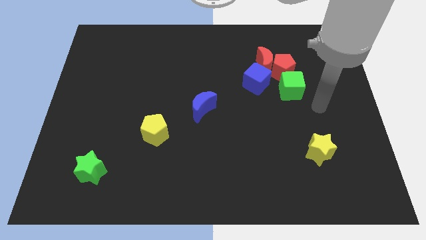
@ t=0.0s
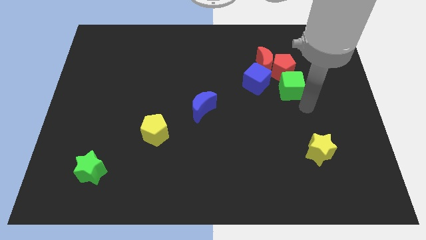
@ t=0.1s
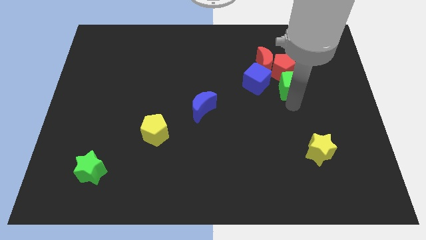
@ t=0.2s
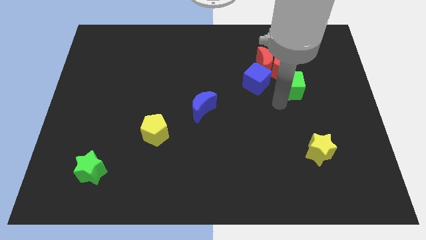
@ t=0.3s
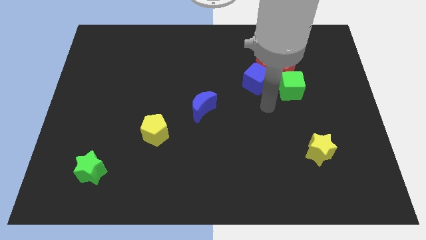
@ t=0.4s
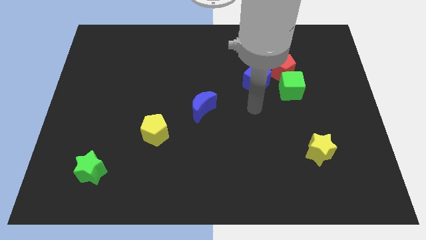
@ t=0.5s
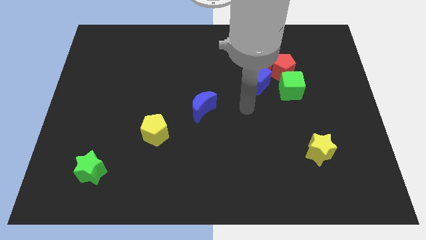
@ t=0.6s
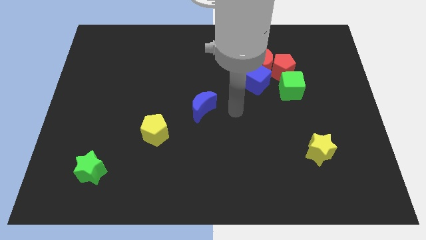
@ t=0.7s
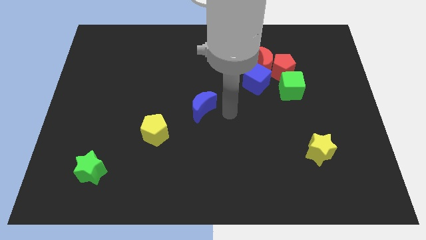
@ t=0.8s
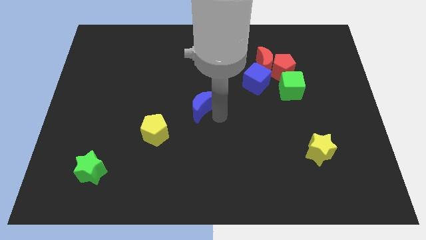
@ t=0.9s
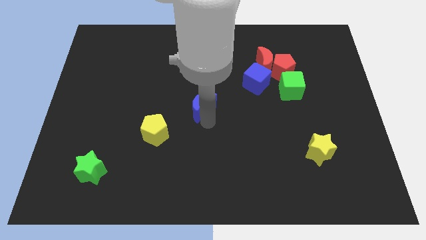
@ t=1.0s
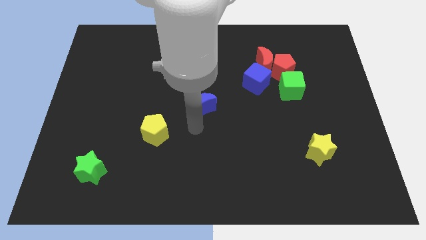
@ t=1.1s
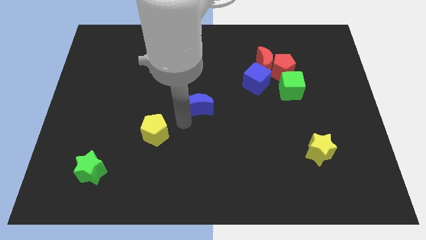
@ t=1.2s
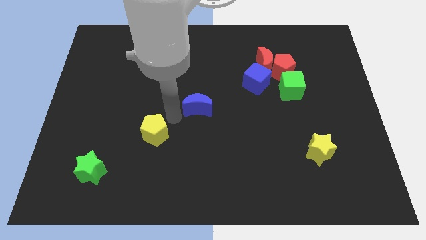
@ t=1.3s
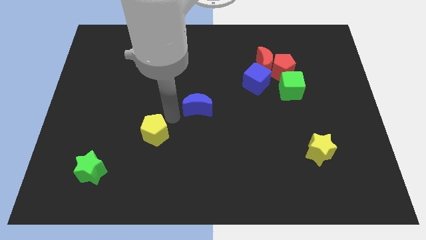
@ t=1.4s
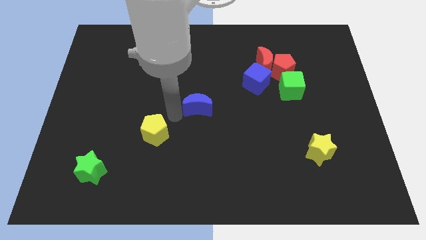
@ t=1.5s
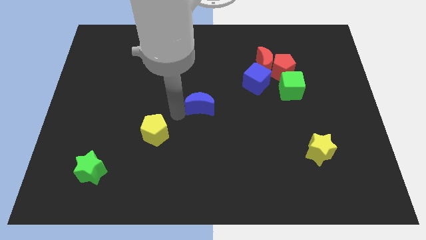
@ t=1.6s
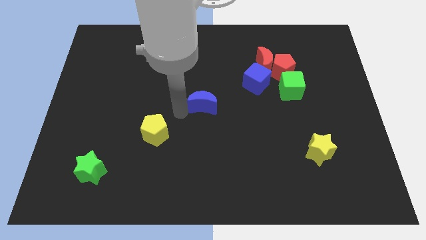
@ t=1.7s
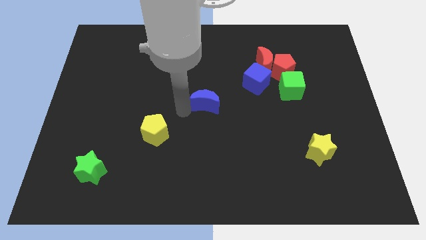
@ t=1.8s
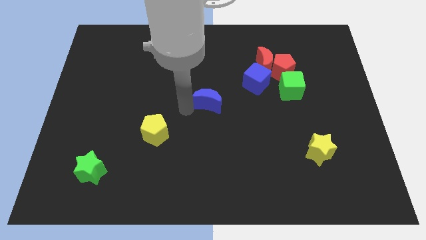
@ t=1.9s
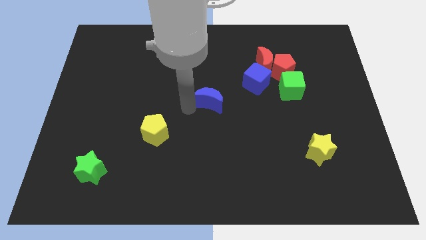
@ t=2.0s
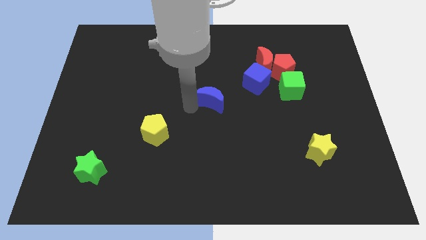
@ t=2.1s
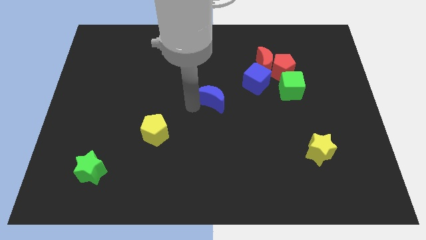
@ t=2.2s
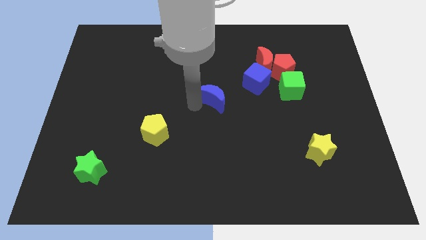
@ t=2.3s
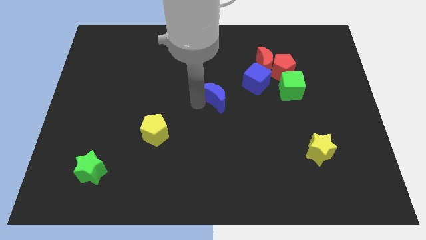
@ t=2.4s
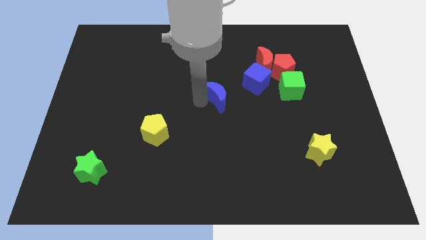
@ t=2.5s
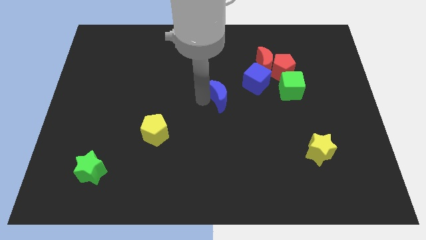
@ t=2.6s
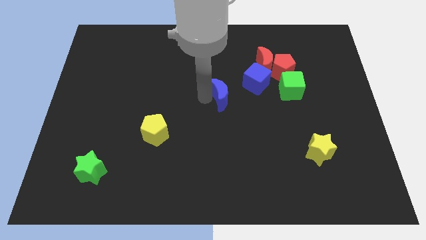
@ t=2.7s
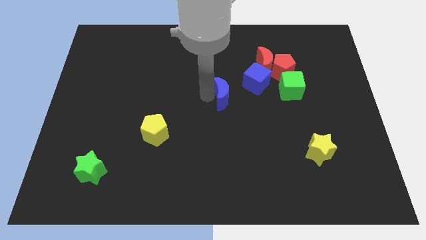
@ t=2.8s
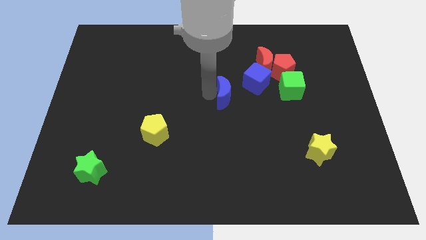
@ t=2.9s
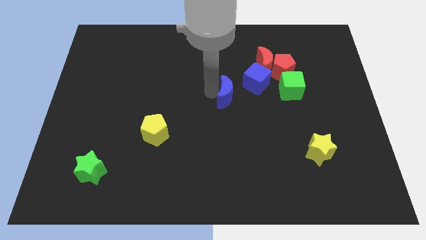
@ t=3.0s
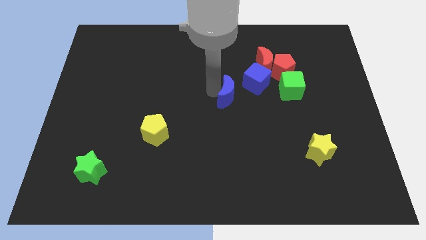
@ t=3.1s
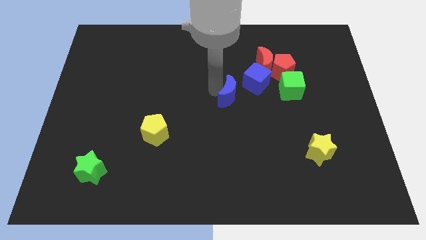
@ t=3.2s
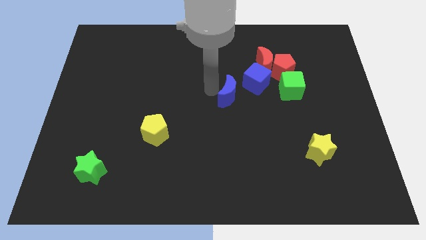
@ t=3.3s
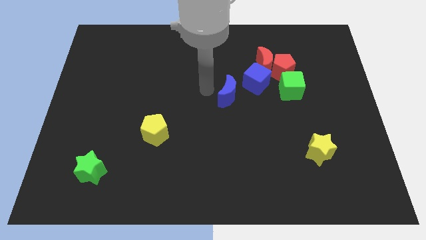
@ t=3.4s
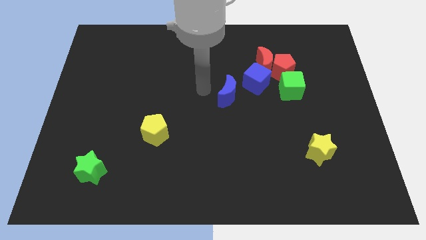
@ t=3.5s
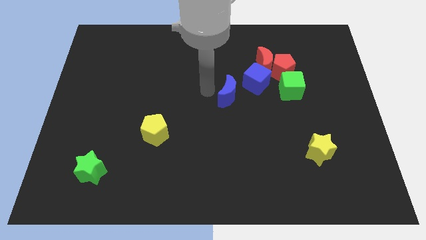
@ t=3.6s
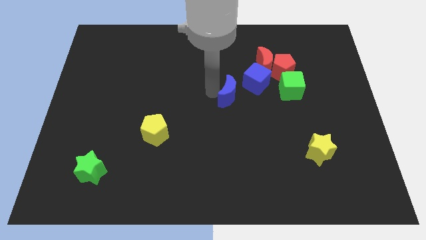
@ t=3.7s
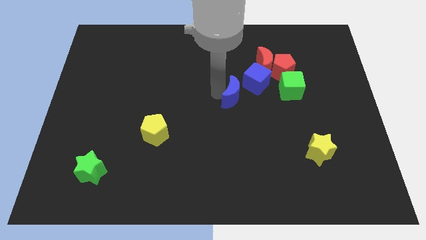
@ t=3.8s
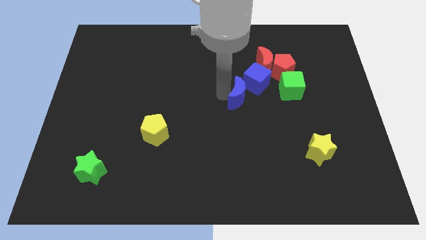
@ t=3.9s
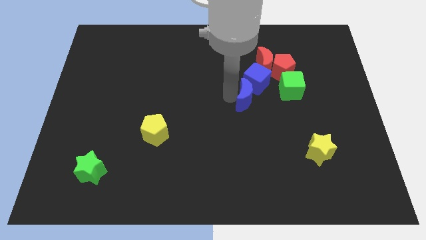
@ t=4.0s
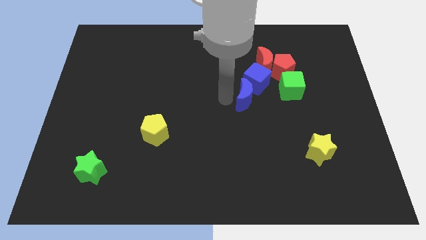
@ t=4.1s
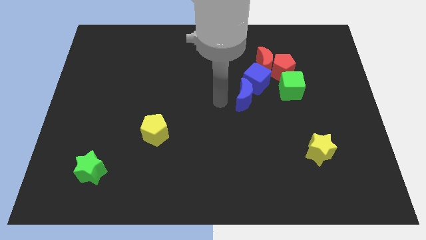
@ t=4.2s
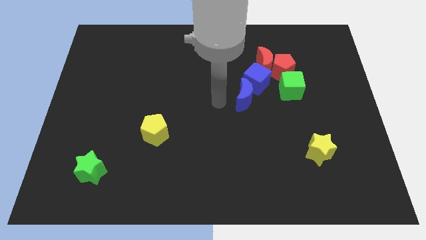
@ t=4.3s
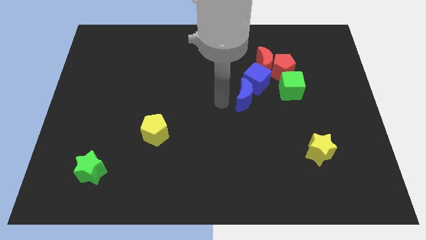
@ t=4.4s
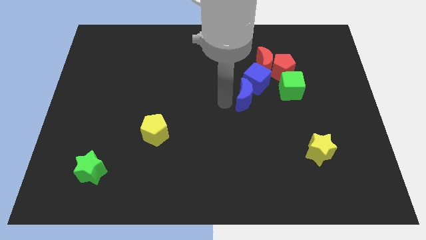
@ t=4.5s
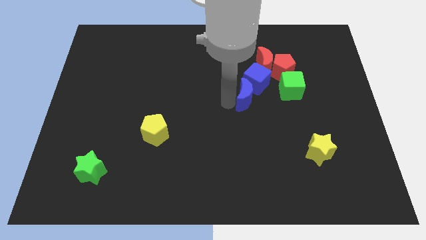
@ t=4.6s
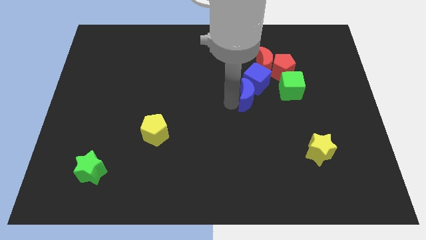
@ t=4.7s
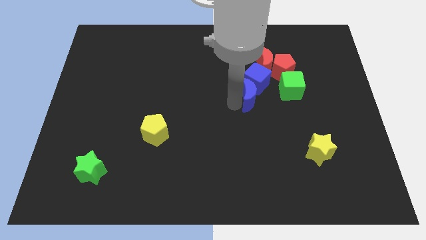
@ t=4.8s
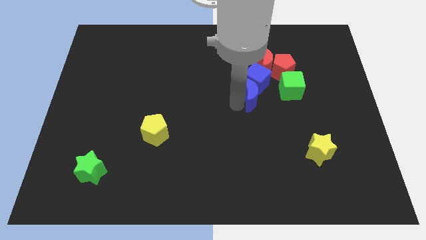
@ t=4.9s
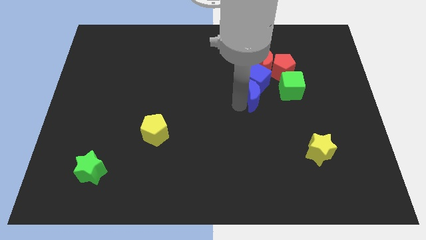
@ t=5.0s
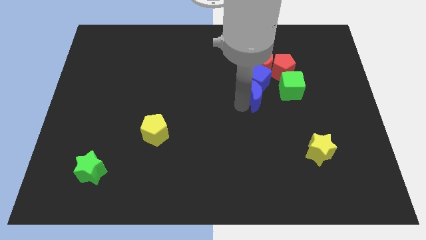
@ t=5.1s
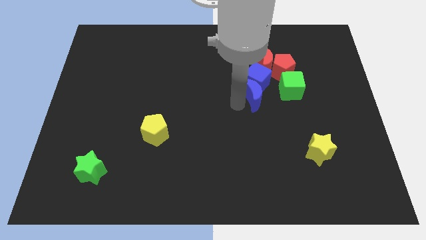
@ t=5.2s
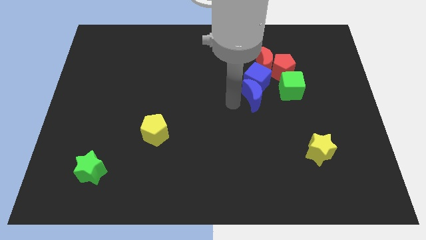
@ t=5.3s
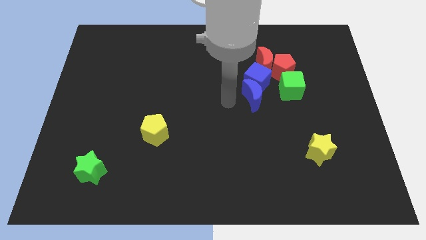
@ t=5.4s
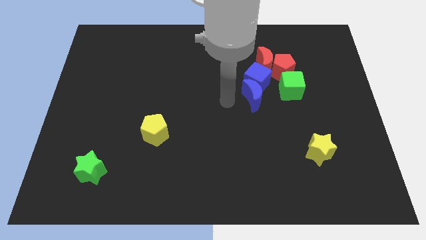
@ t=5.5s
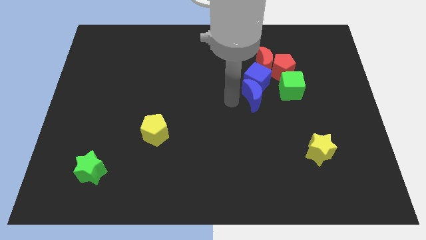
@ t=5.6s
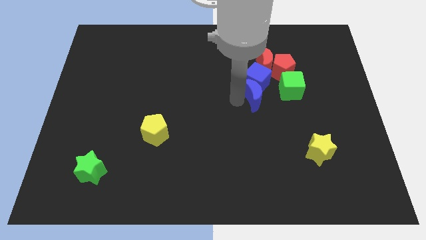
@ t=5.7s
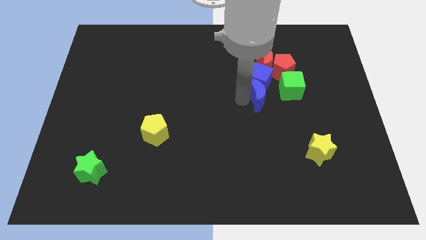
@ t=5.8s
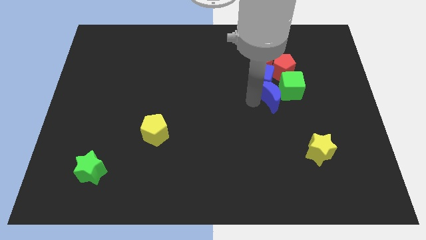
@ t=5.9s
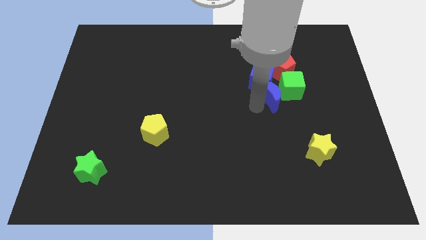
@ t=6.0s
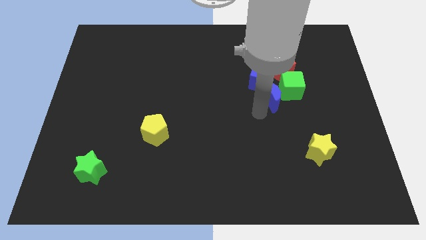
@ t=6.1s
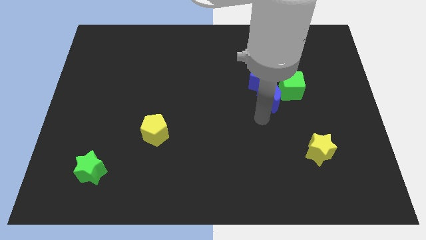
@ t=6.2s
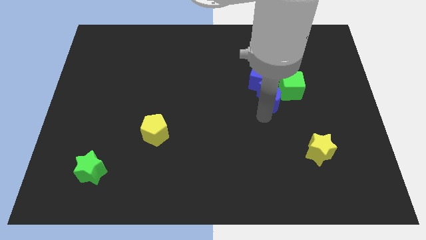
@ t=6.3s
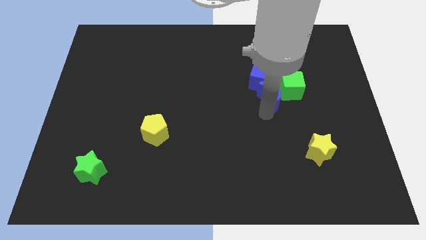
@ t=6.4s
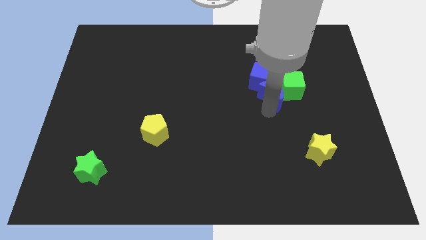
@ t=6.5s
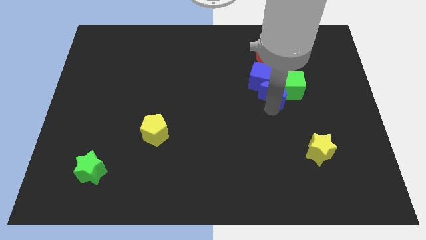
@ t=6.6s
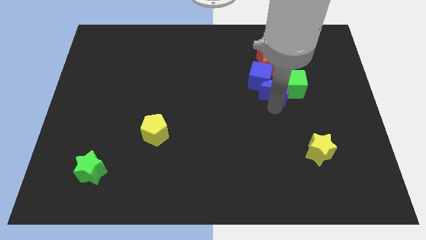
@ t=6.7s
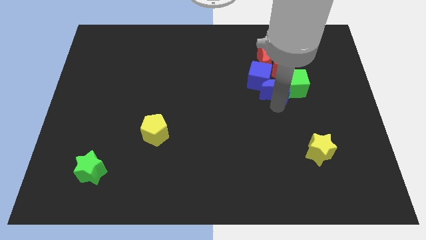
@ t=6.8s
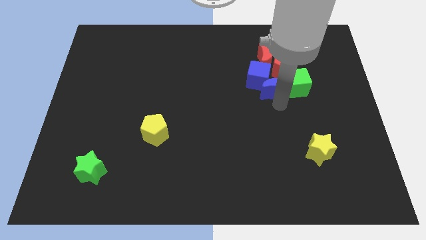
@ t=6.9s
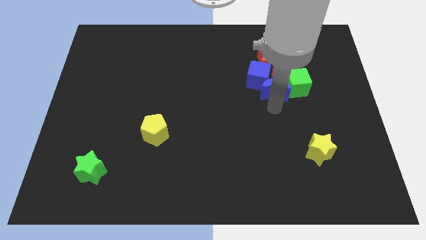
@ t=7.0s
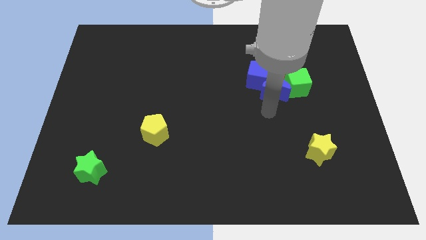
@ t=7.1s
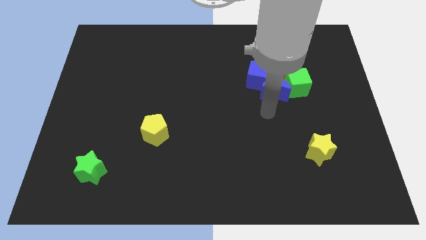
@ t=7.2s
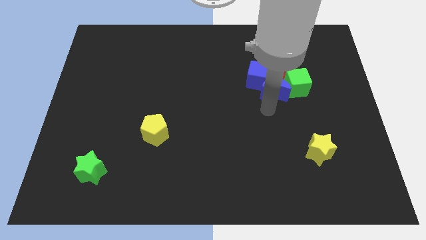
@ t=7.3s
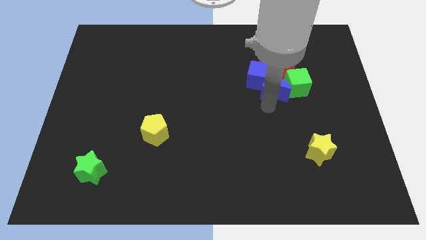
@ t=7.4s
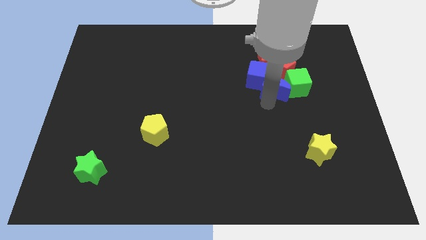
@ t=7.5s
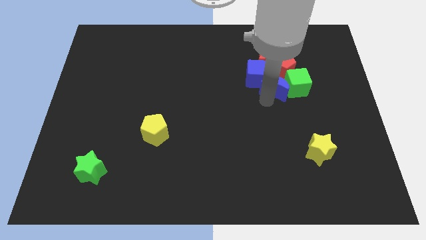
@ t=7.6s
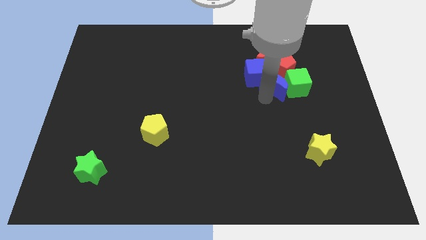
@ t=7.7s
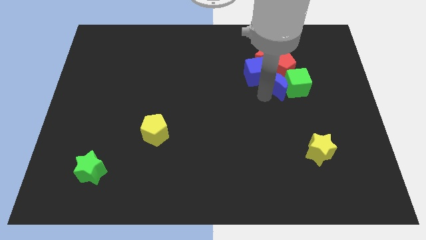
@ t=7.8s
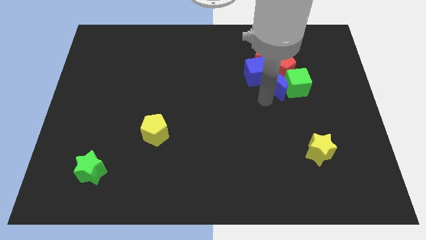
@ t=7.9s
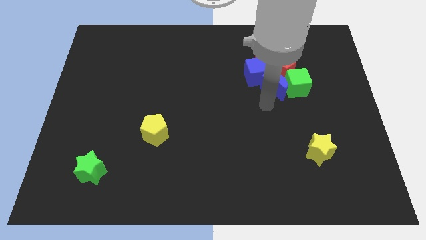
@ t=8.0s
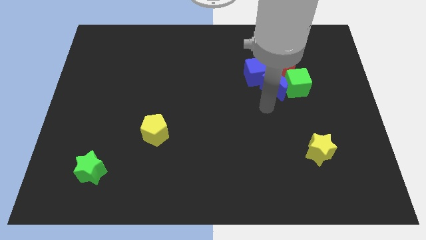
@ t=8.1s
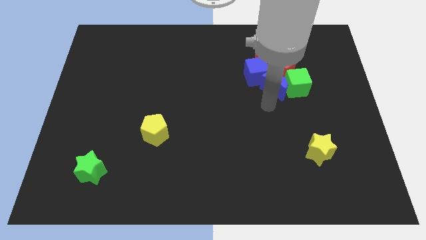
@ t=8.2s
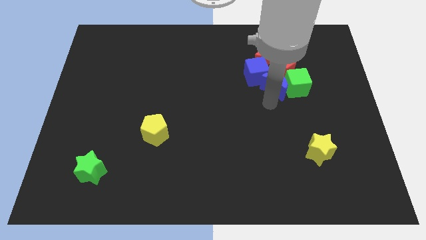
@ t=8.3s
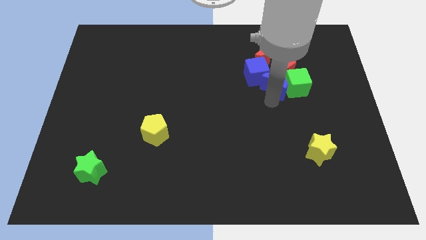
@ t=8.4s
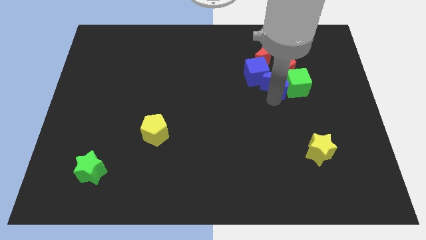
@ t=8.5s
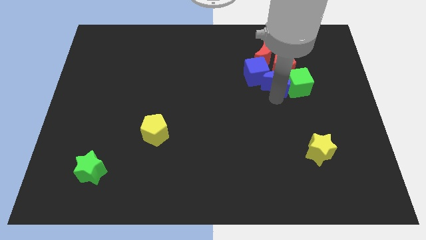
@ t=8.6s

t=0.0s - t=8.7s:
move the blue moon close to the red pentagon
